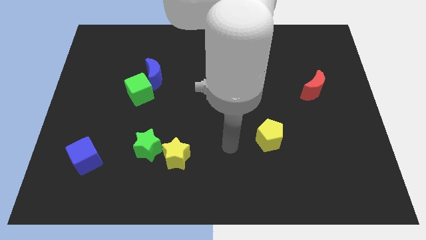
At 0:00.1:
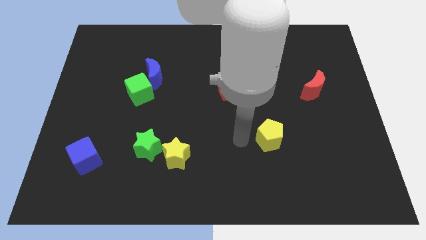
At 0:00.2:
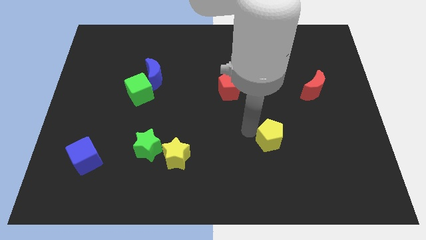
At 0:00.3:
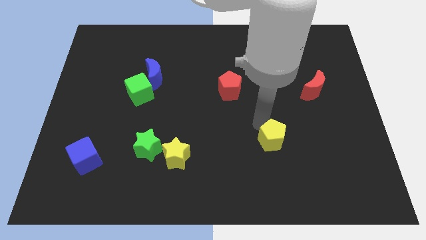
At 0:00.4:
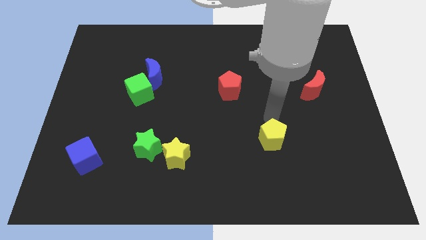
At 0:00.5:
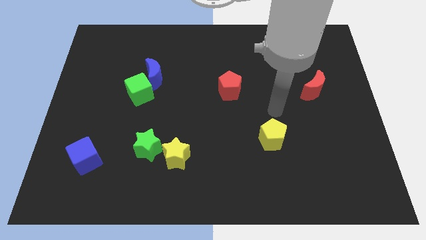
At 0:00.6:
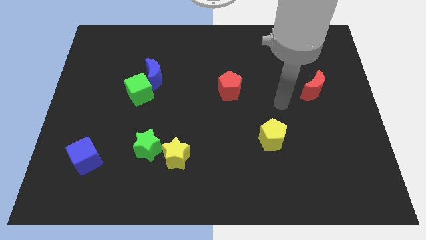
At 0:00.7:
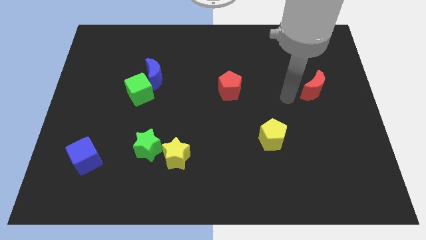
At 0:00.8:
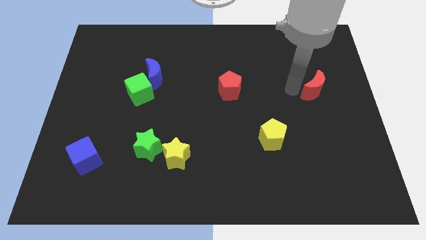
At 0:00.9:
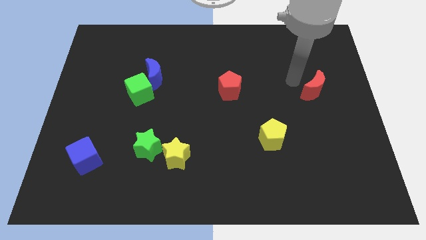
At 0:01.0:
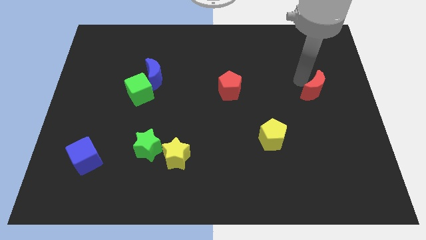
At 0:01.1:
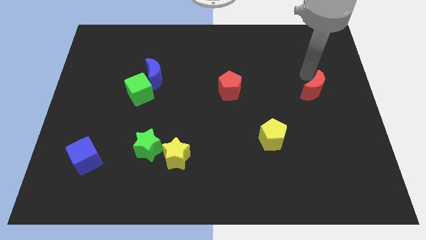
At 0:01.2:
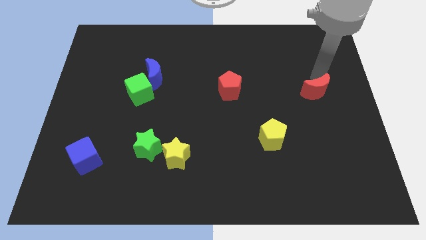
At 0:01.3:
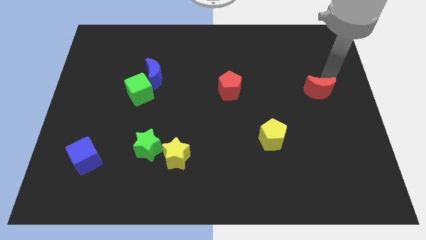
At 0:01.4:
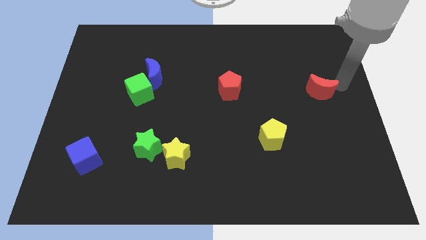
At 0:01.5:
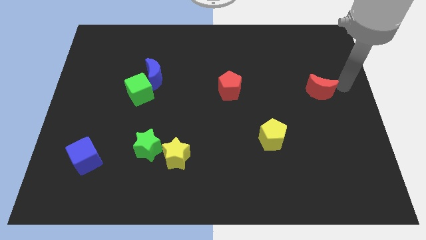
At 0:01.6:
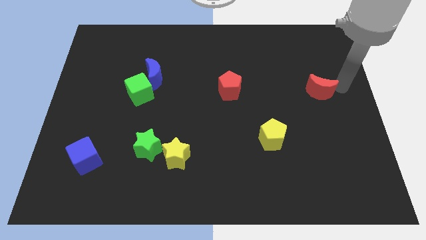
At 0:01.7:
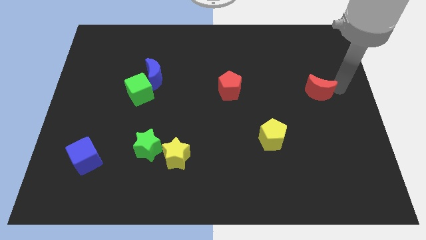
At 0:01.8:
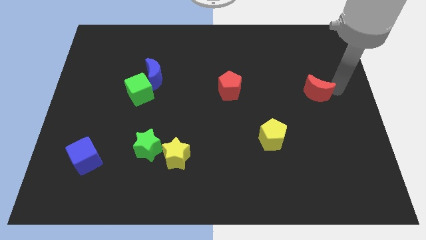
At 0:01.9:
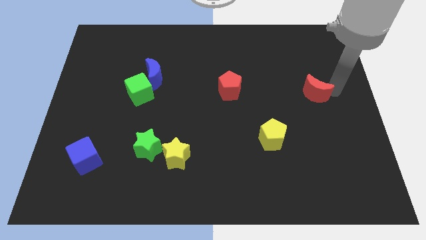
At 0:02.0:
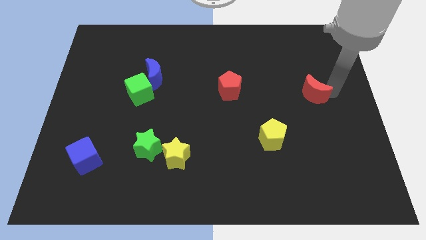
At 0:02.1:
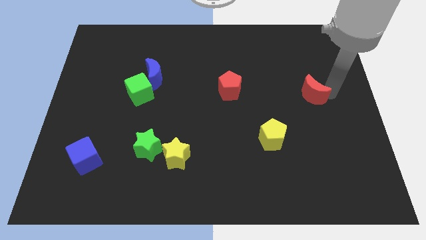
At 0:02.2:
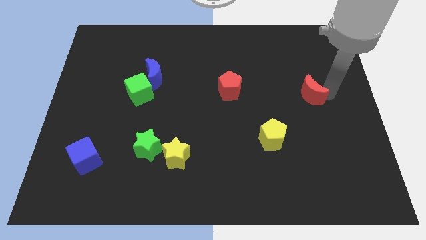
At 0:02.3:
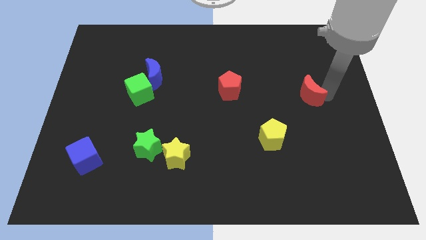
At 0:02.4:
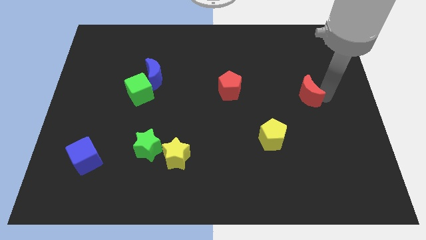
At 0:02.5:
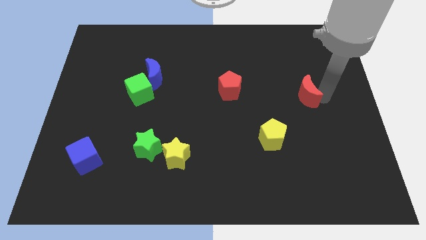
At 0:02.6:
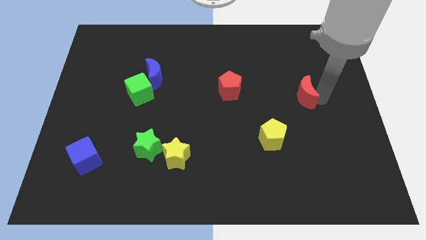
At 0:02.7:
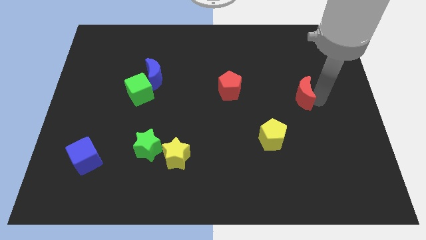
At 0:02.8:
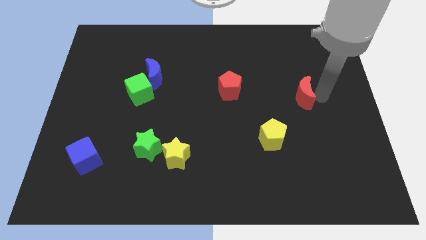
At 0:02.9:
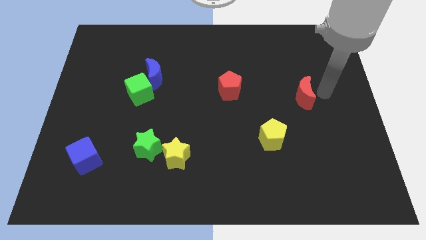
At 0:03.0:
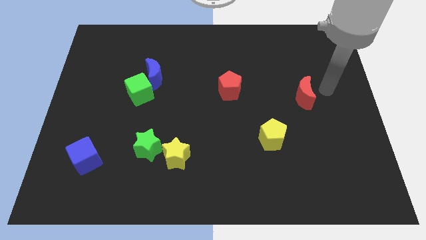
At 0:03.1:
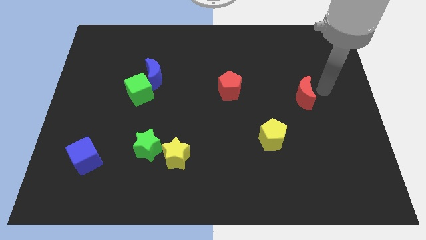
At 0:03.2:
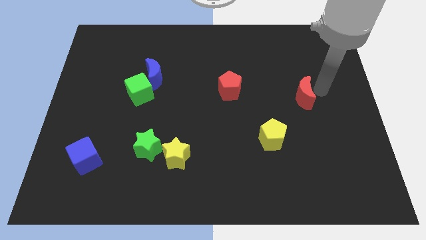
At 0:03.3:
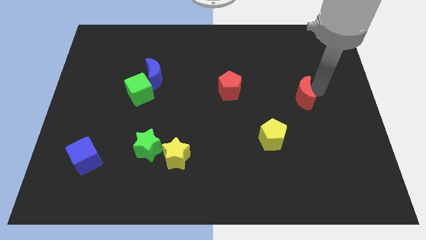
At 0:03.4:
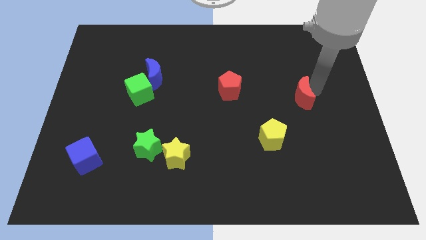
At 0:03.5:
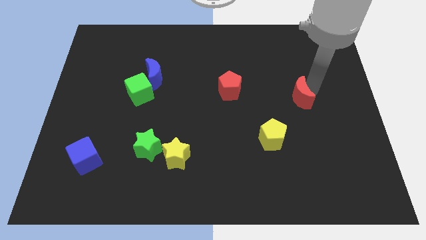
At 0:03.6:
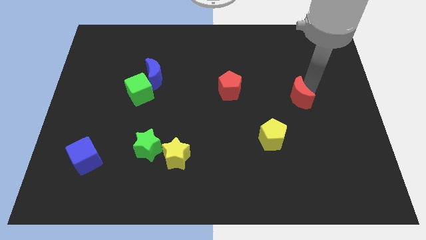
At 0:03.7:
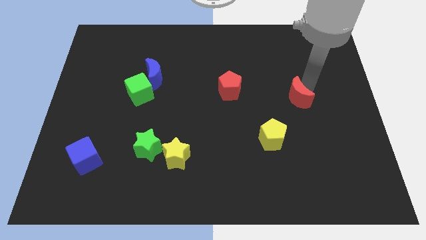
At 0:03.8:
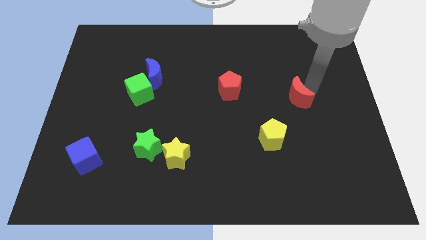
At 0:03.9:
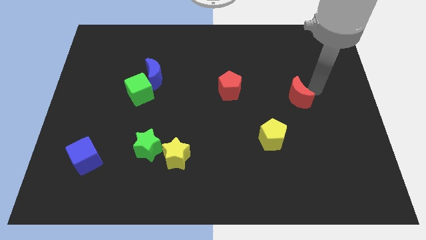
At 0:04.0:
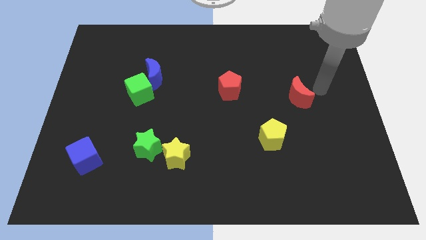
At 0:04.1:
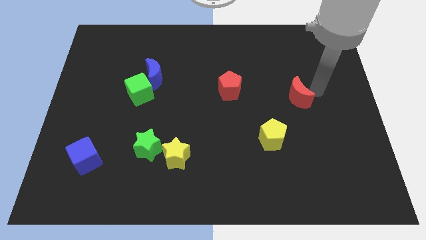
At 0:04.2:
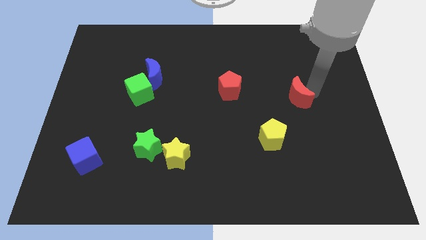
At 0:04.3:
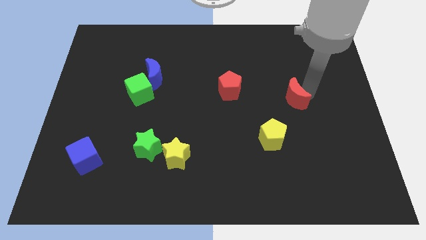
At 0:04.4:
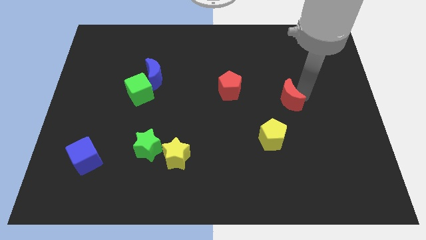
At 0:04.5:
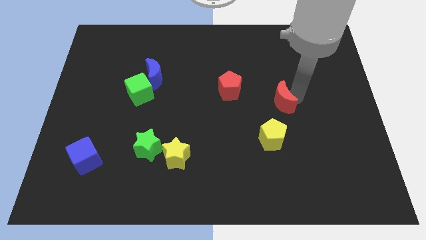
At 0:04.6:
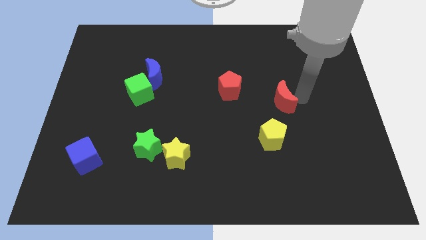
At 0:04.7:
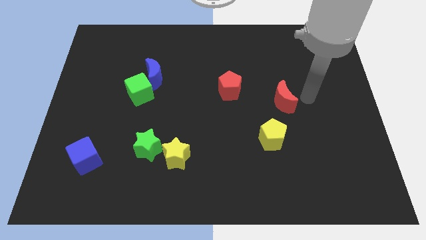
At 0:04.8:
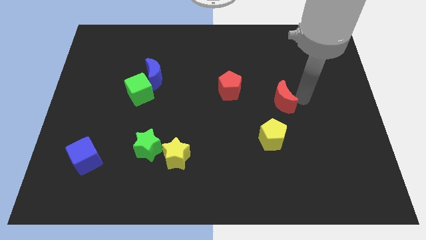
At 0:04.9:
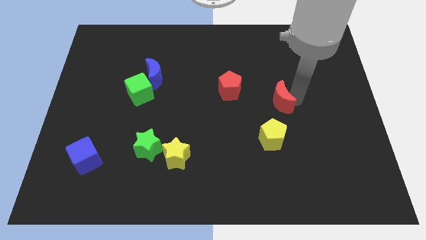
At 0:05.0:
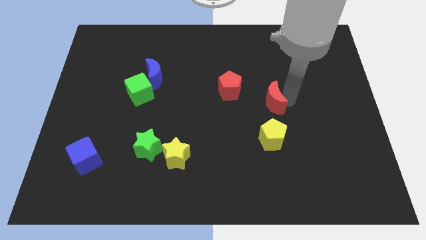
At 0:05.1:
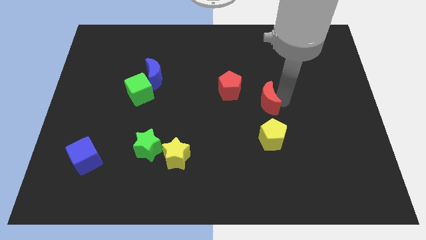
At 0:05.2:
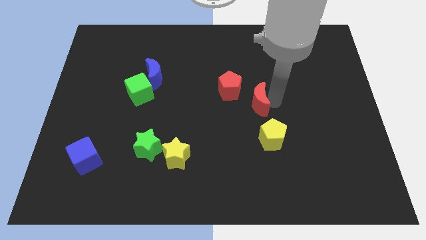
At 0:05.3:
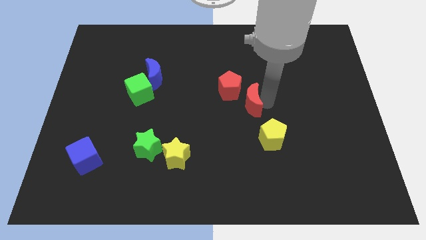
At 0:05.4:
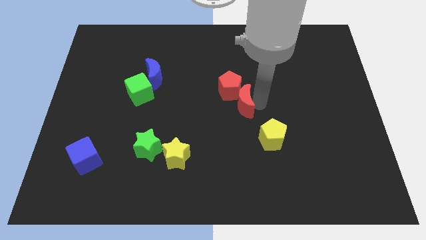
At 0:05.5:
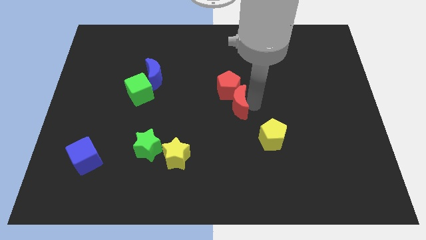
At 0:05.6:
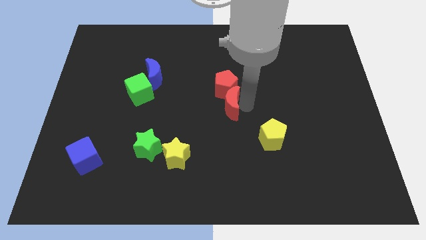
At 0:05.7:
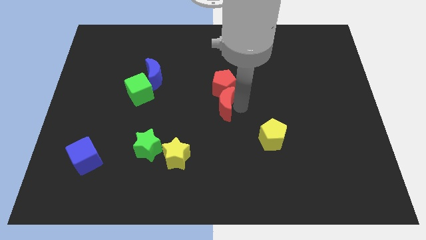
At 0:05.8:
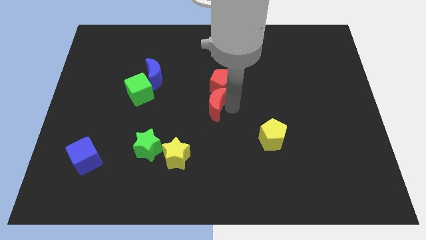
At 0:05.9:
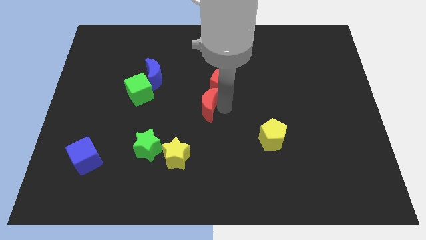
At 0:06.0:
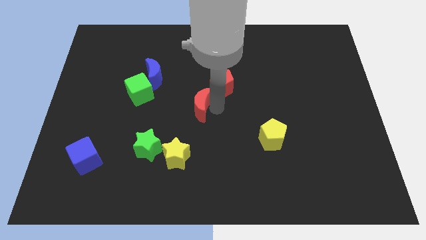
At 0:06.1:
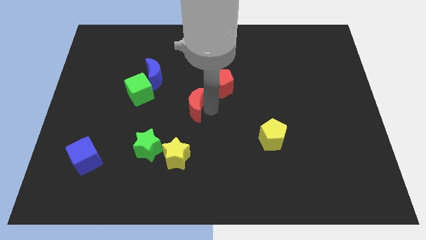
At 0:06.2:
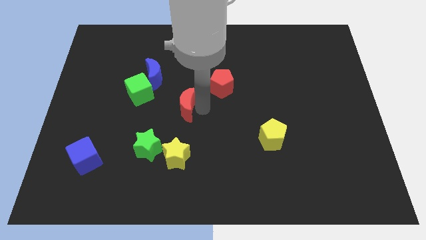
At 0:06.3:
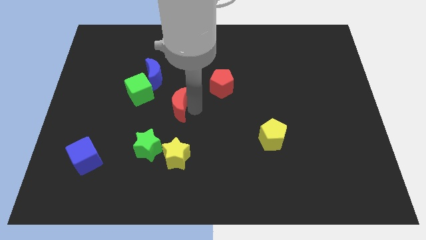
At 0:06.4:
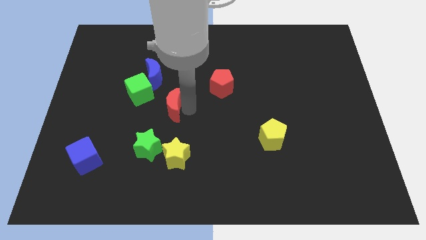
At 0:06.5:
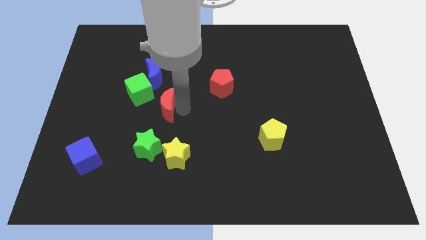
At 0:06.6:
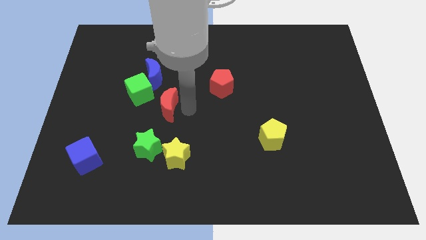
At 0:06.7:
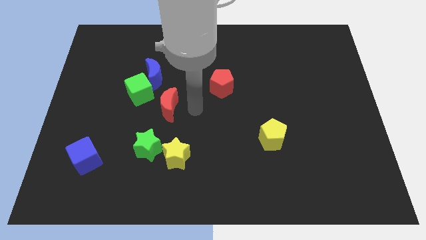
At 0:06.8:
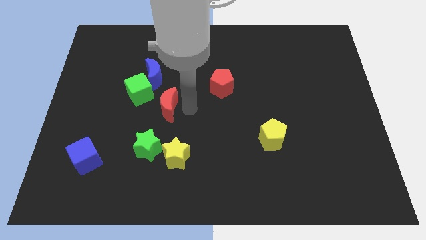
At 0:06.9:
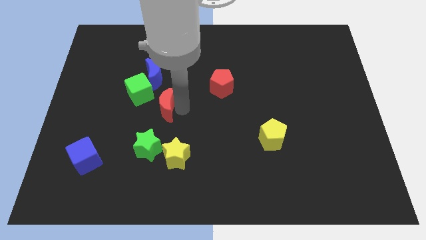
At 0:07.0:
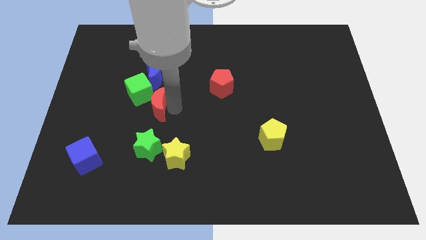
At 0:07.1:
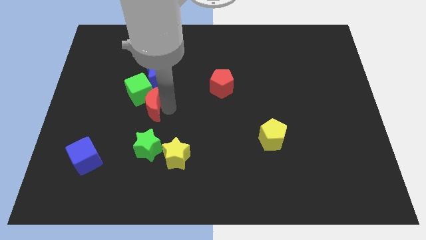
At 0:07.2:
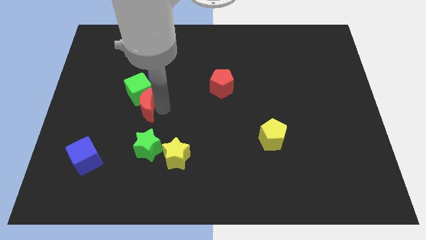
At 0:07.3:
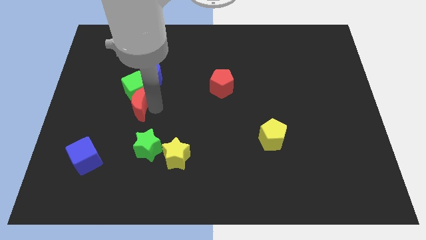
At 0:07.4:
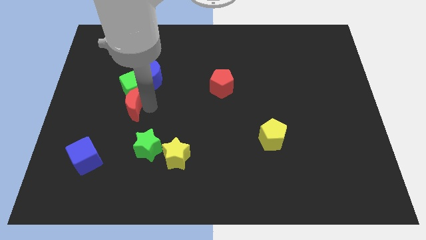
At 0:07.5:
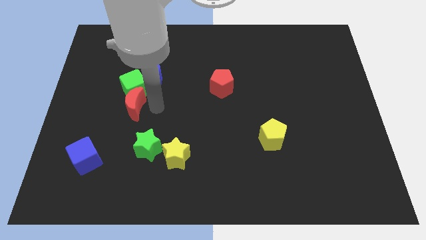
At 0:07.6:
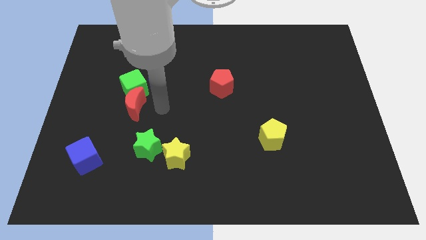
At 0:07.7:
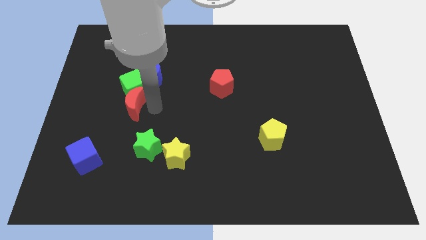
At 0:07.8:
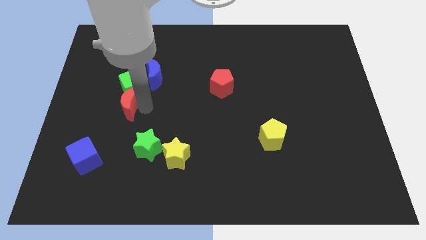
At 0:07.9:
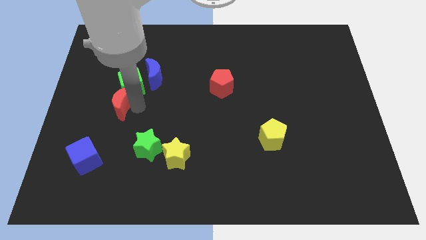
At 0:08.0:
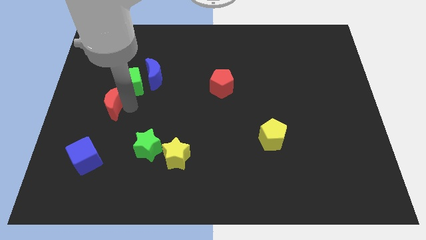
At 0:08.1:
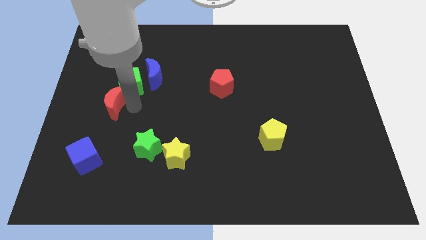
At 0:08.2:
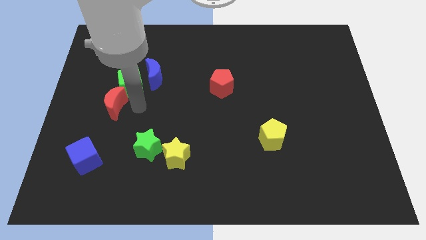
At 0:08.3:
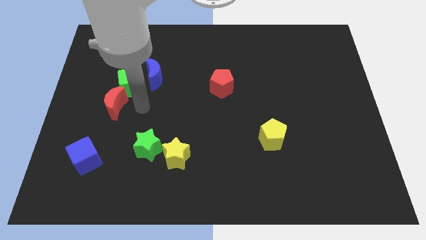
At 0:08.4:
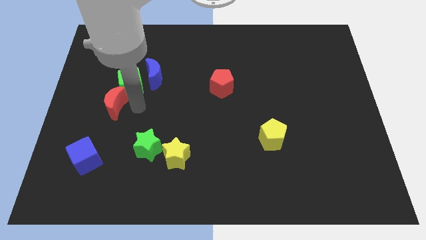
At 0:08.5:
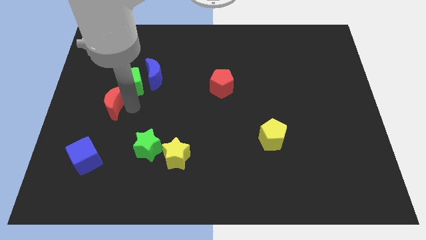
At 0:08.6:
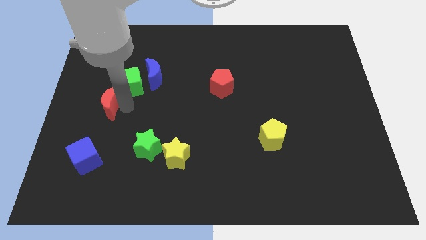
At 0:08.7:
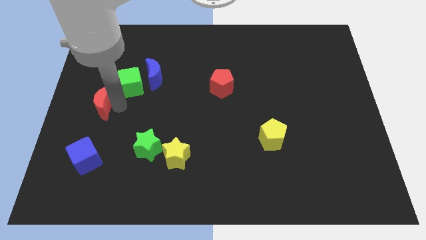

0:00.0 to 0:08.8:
slide the red moon to the center left
